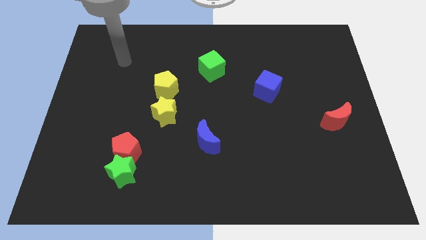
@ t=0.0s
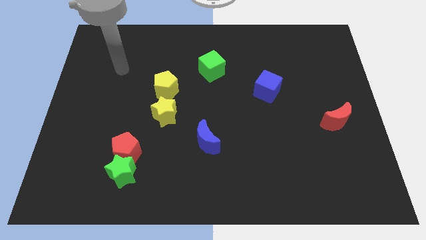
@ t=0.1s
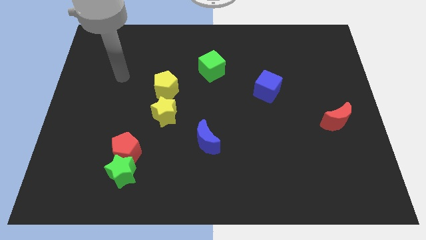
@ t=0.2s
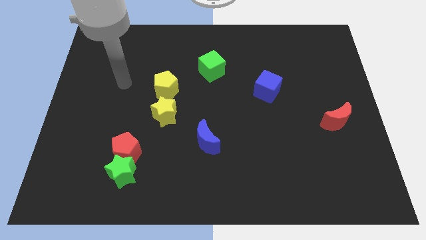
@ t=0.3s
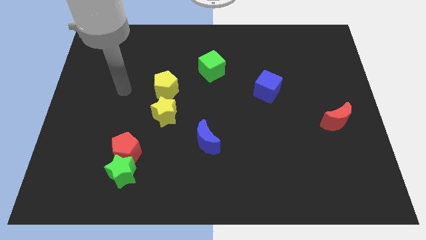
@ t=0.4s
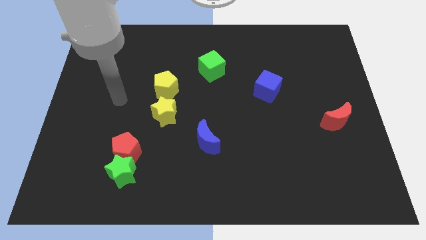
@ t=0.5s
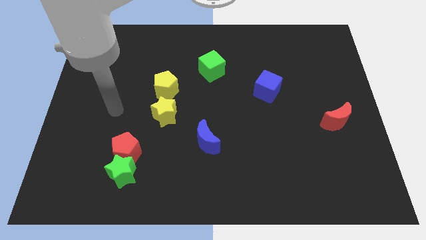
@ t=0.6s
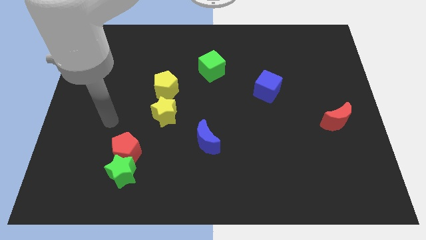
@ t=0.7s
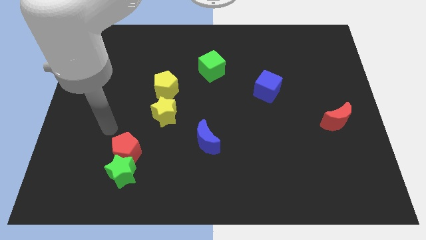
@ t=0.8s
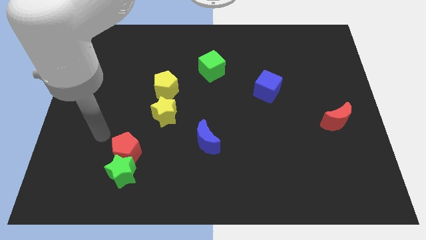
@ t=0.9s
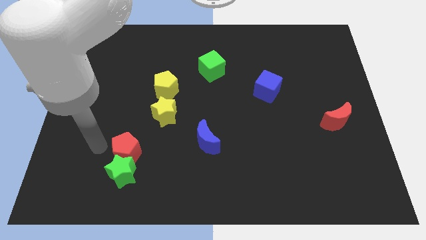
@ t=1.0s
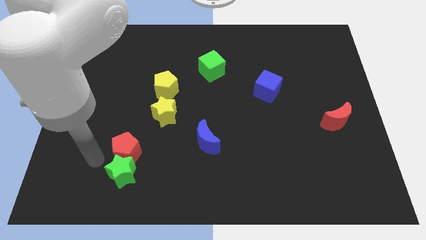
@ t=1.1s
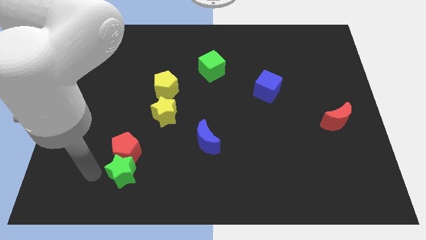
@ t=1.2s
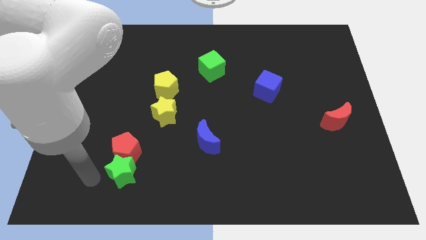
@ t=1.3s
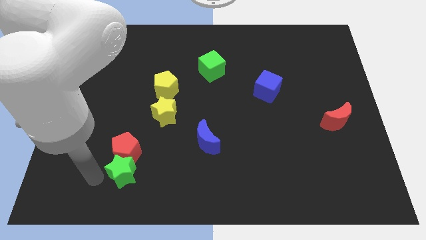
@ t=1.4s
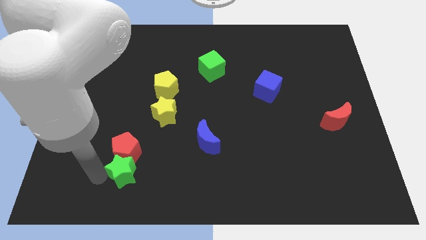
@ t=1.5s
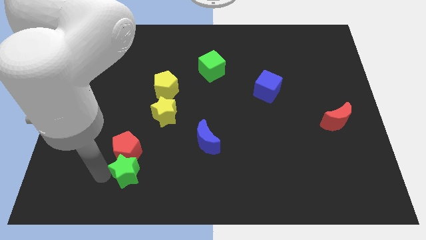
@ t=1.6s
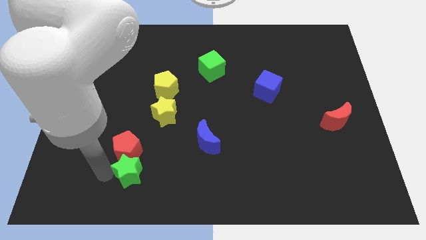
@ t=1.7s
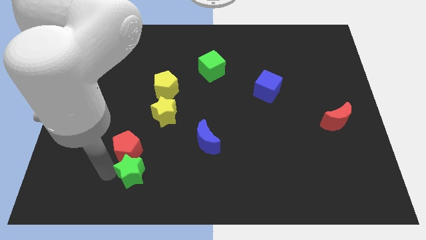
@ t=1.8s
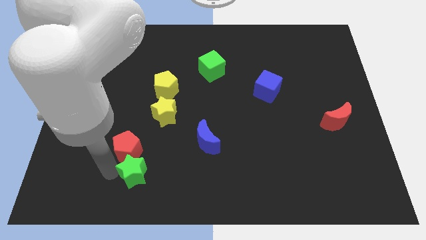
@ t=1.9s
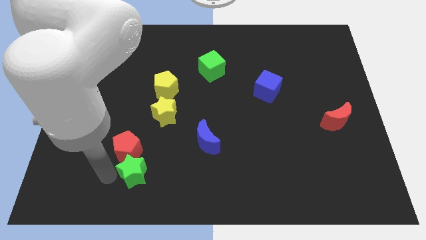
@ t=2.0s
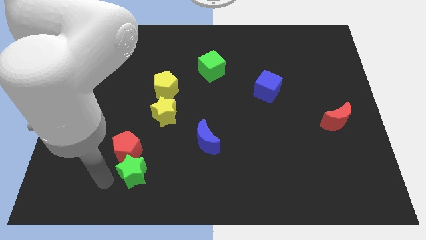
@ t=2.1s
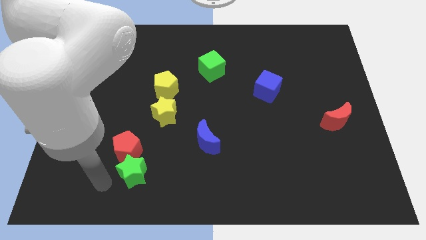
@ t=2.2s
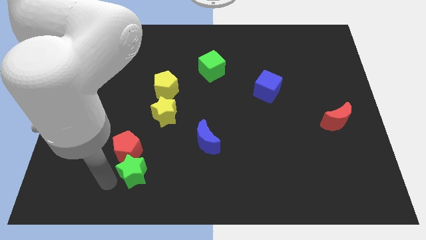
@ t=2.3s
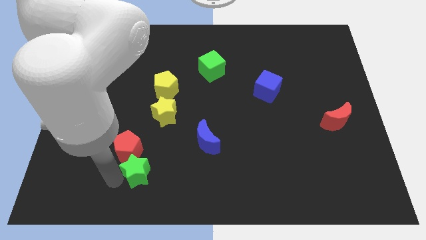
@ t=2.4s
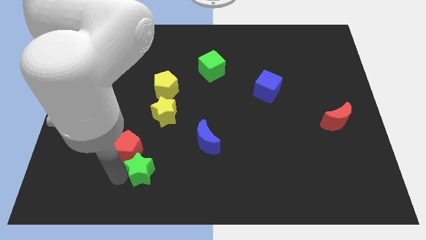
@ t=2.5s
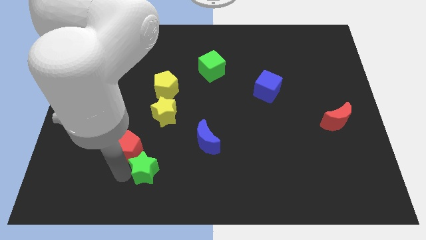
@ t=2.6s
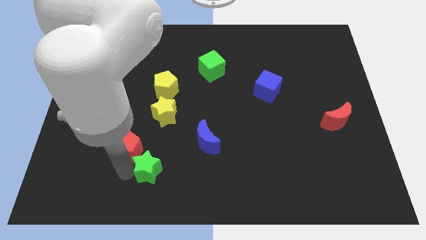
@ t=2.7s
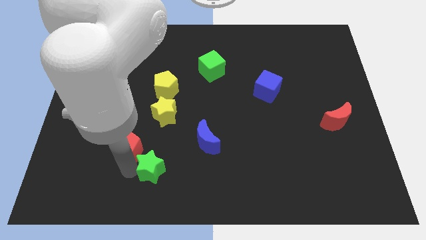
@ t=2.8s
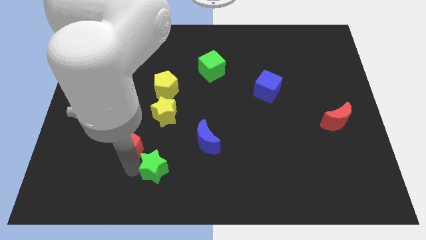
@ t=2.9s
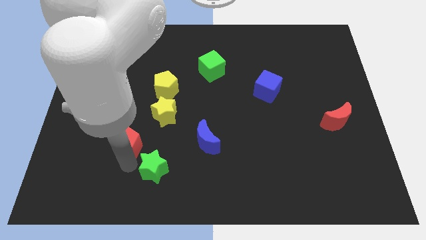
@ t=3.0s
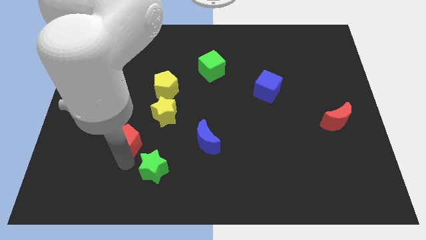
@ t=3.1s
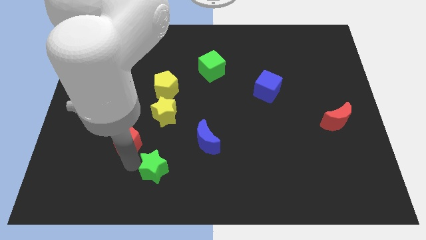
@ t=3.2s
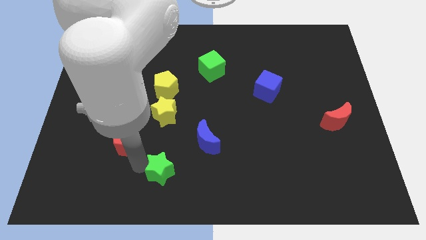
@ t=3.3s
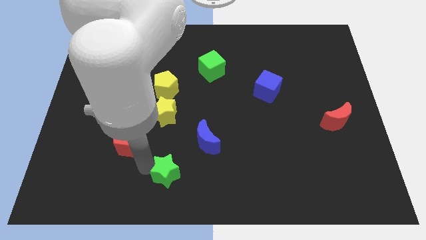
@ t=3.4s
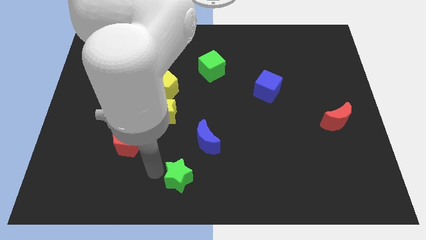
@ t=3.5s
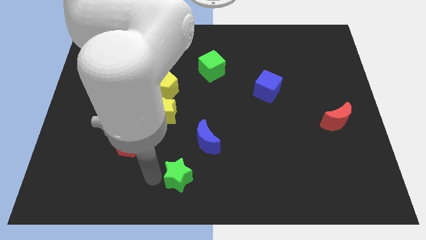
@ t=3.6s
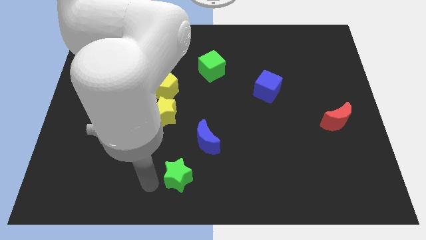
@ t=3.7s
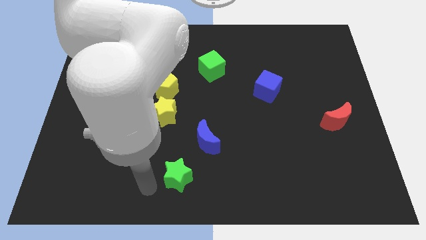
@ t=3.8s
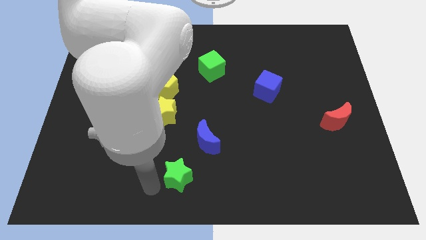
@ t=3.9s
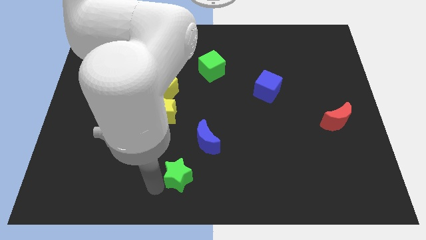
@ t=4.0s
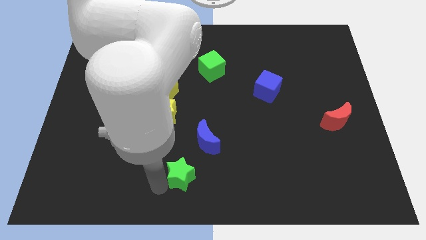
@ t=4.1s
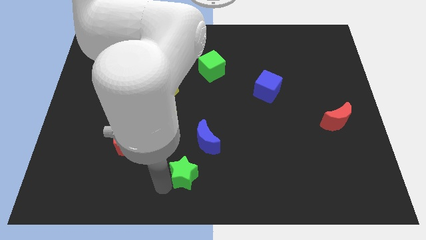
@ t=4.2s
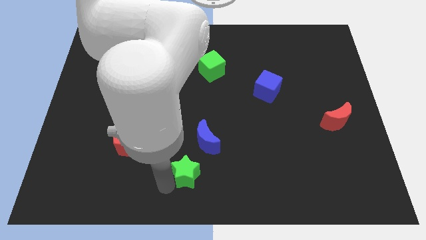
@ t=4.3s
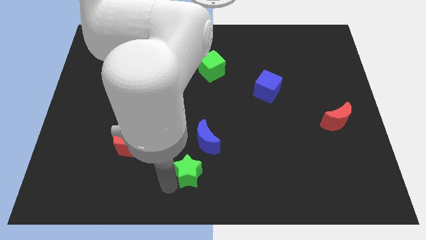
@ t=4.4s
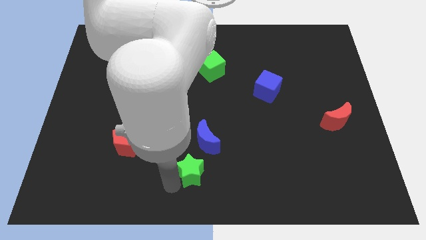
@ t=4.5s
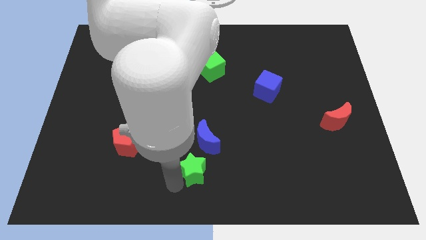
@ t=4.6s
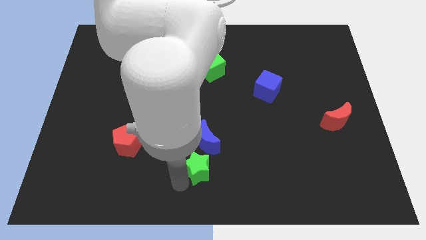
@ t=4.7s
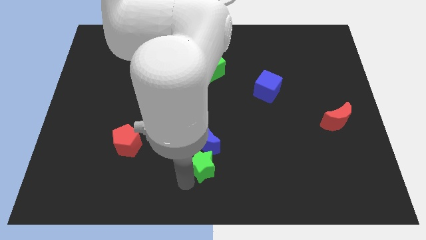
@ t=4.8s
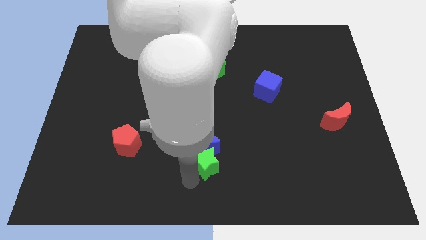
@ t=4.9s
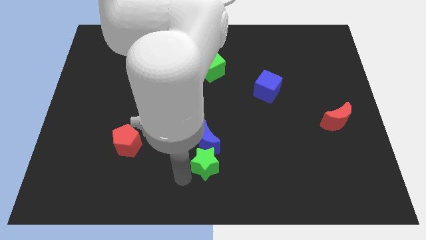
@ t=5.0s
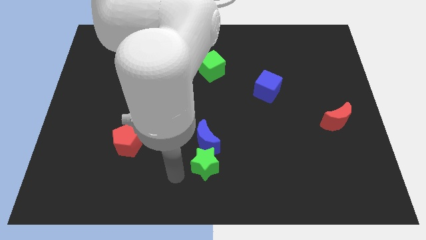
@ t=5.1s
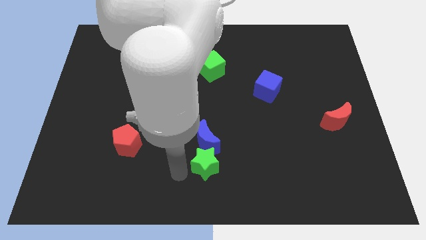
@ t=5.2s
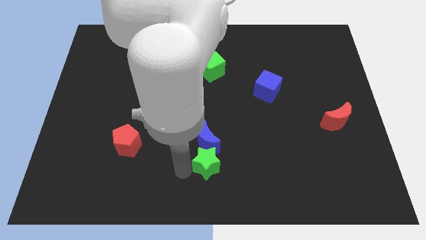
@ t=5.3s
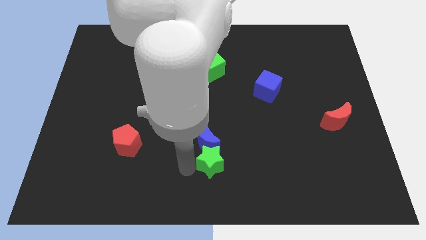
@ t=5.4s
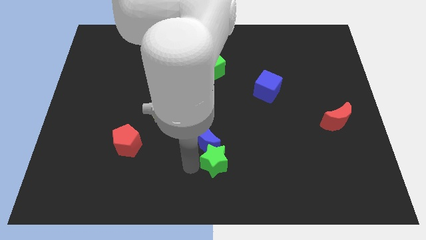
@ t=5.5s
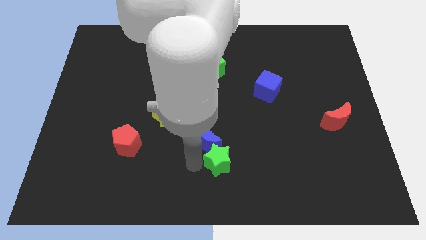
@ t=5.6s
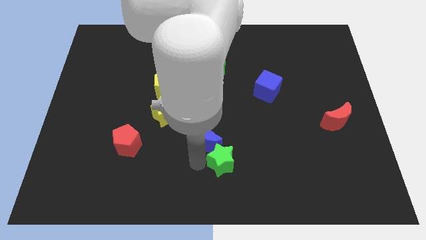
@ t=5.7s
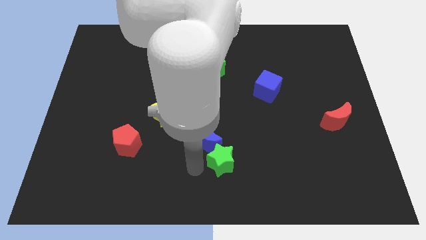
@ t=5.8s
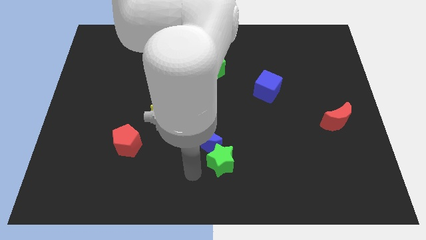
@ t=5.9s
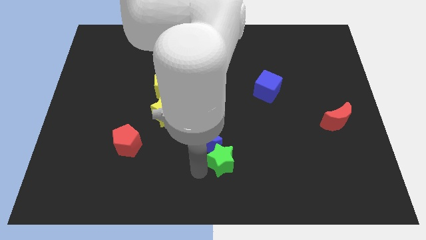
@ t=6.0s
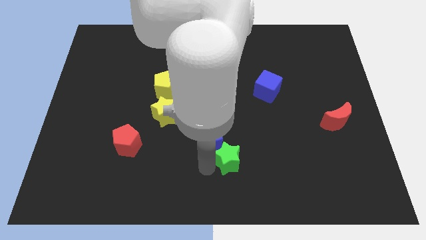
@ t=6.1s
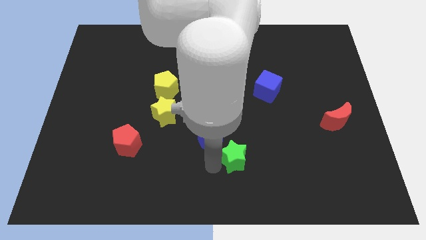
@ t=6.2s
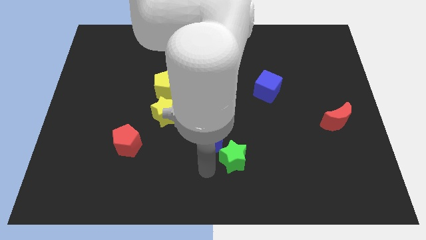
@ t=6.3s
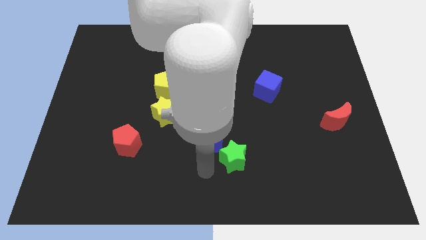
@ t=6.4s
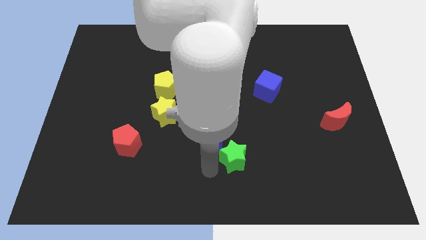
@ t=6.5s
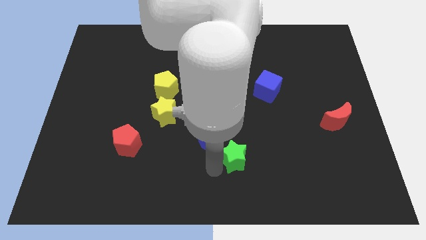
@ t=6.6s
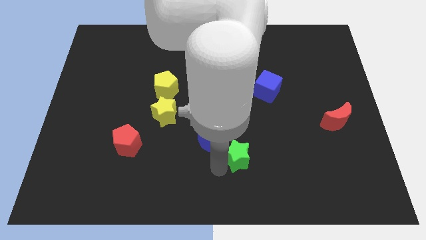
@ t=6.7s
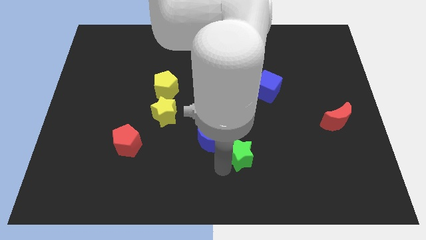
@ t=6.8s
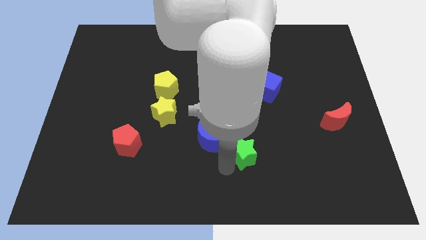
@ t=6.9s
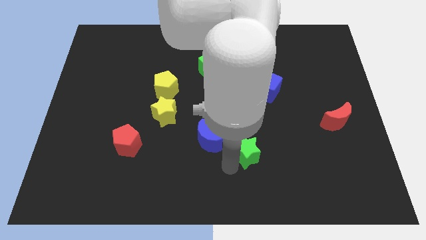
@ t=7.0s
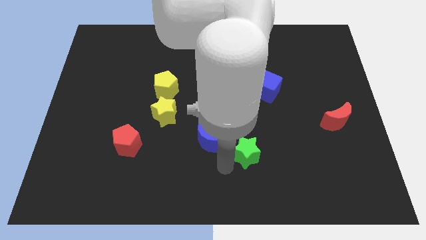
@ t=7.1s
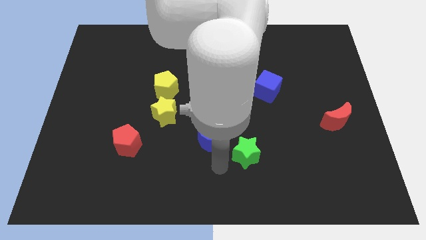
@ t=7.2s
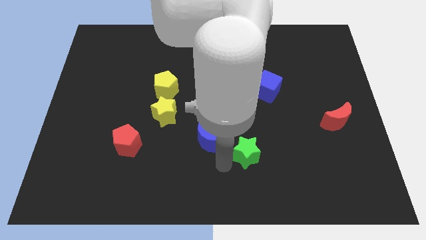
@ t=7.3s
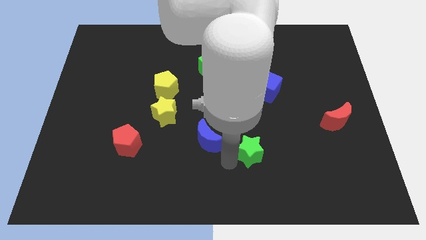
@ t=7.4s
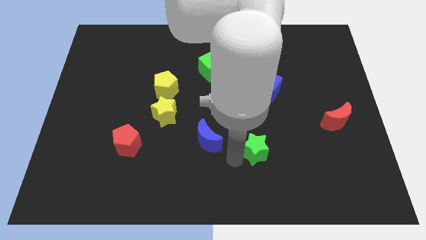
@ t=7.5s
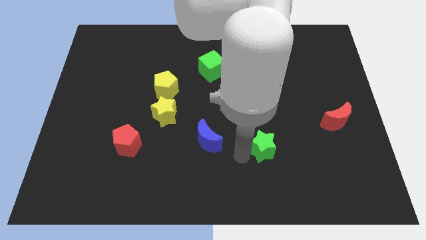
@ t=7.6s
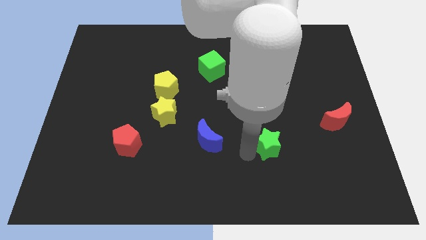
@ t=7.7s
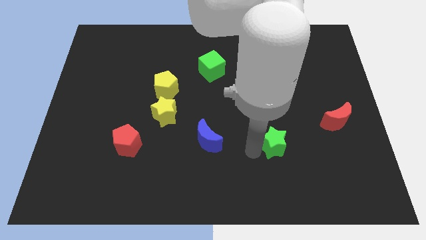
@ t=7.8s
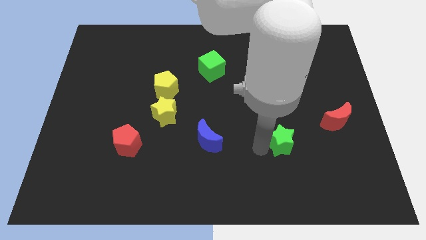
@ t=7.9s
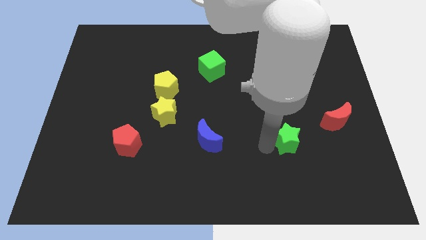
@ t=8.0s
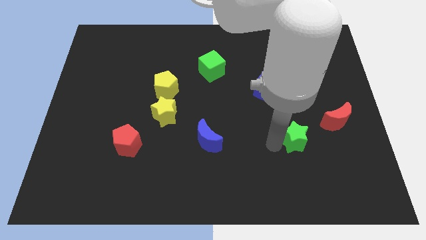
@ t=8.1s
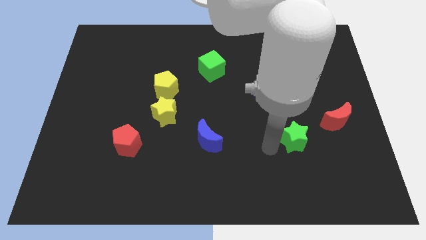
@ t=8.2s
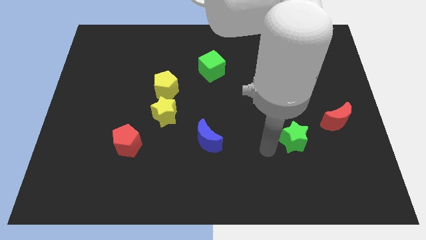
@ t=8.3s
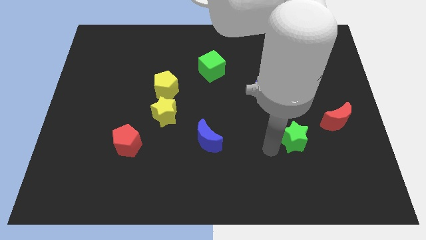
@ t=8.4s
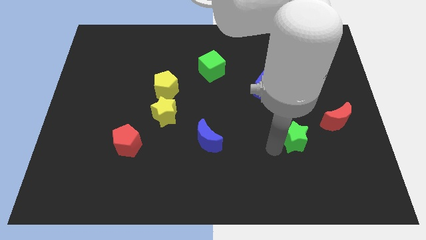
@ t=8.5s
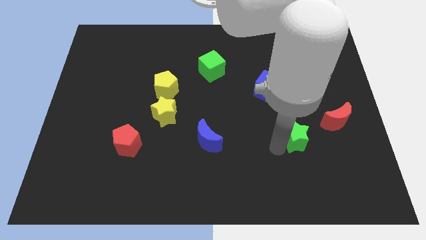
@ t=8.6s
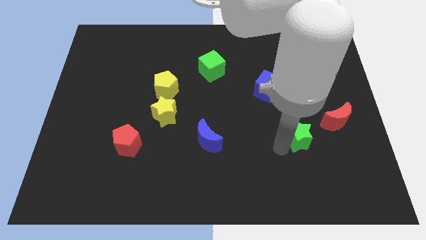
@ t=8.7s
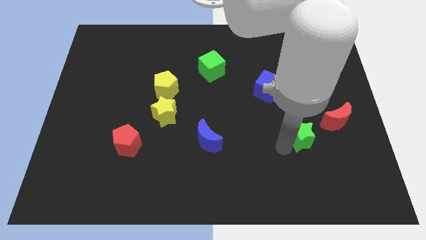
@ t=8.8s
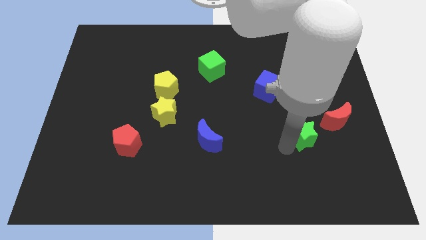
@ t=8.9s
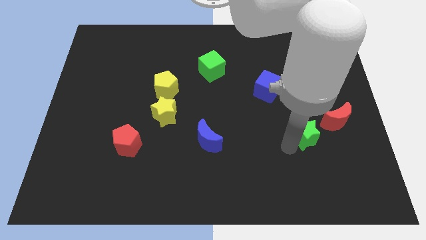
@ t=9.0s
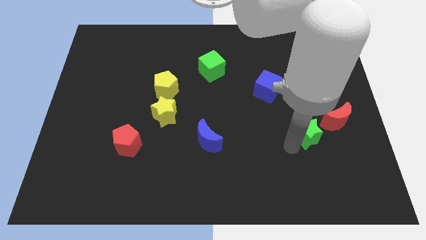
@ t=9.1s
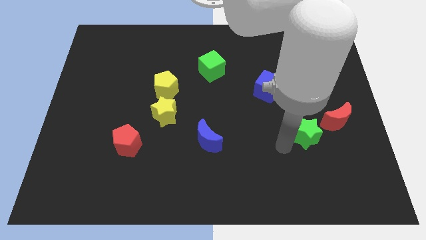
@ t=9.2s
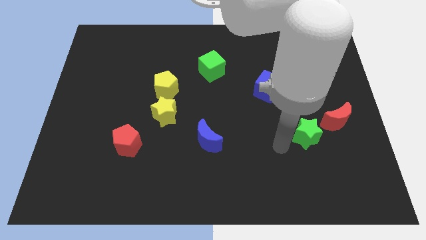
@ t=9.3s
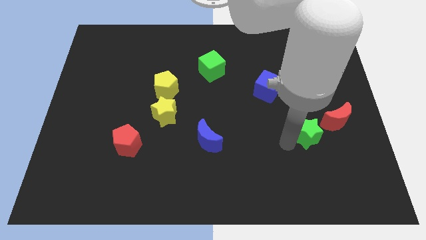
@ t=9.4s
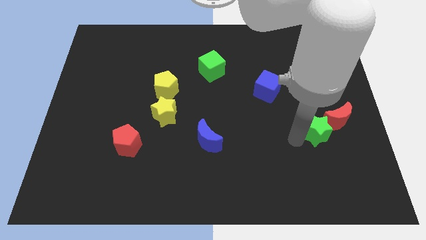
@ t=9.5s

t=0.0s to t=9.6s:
put the green star next to the red moon
